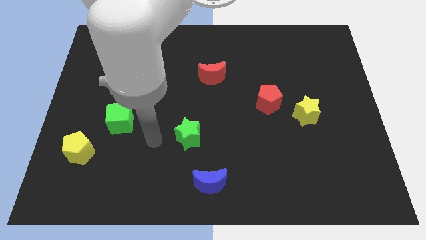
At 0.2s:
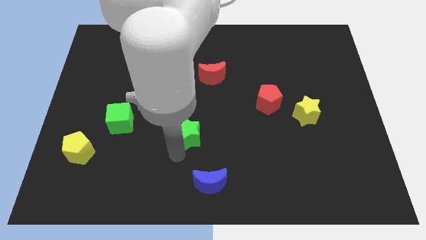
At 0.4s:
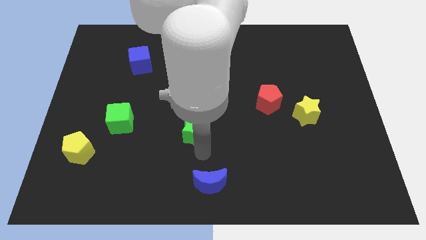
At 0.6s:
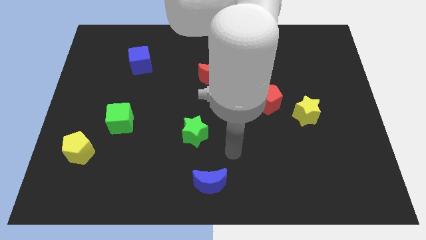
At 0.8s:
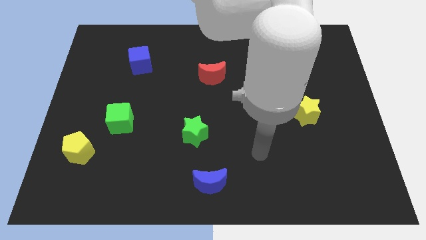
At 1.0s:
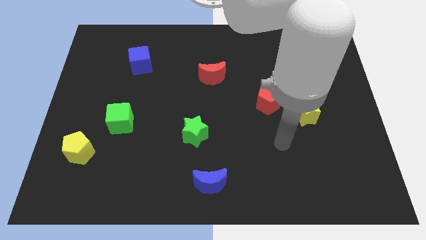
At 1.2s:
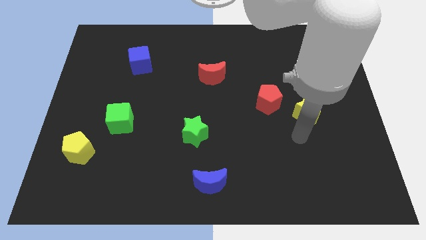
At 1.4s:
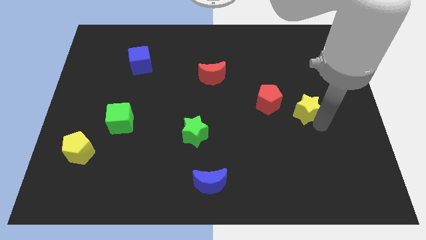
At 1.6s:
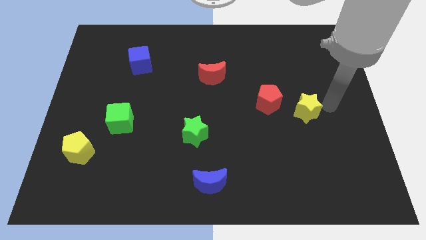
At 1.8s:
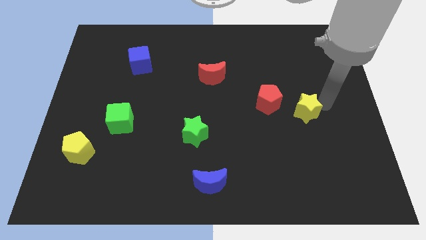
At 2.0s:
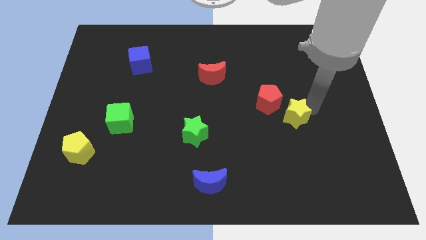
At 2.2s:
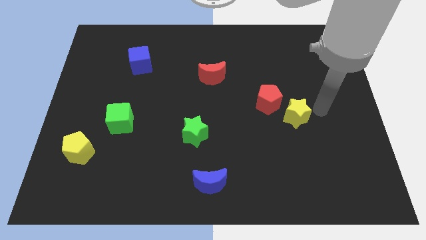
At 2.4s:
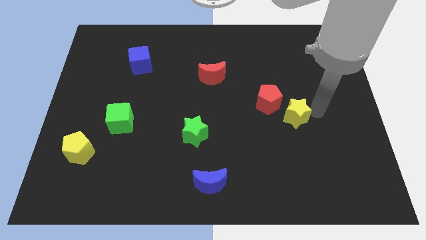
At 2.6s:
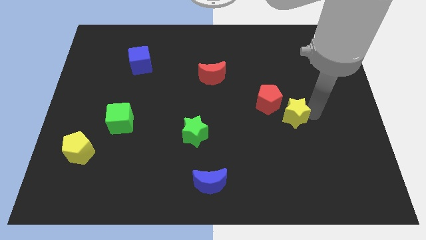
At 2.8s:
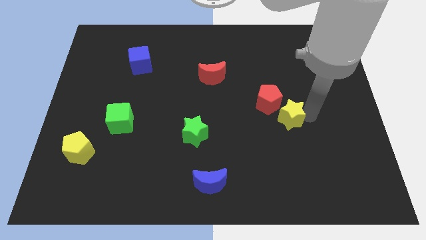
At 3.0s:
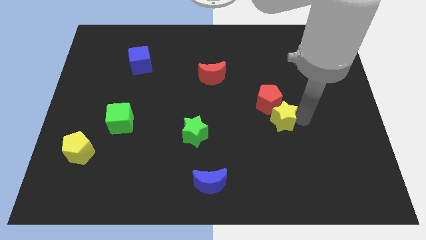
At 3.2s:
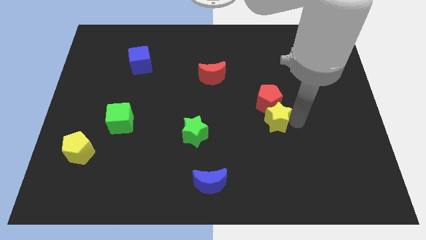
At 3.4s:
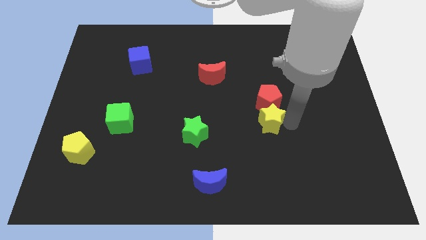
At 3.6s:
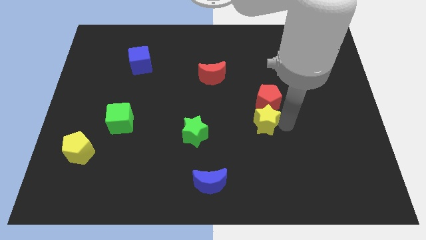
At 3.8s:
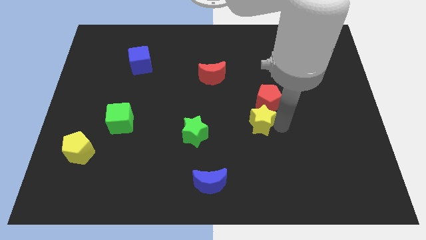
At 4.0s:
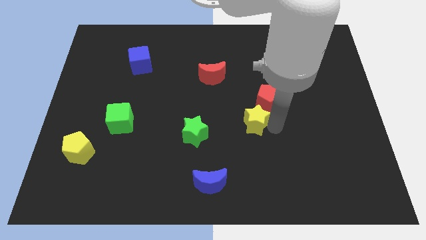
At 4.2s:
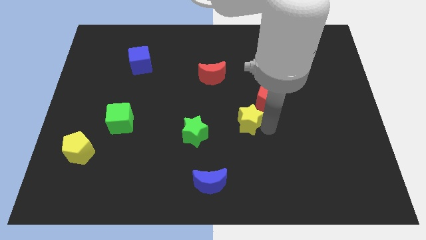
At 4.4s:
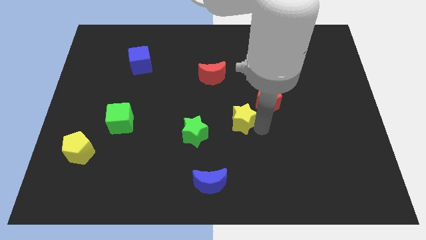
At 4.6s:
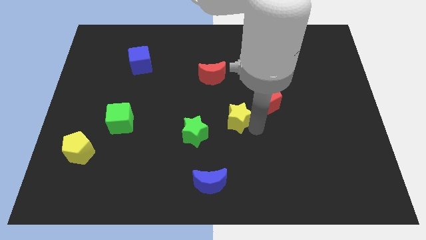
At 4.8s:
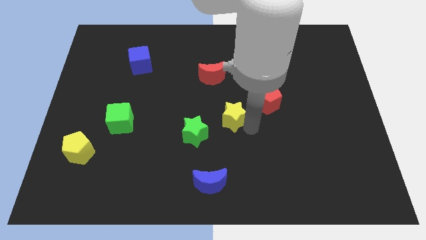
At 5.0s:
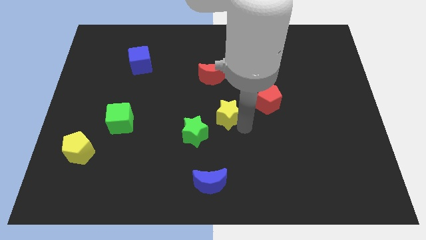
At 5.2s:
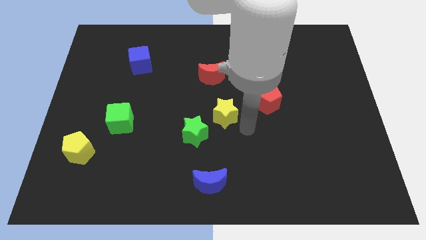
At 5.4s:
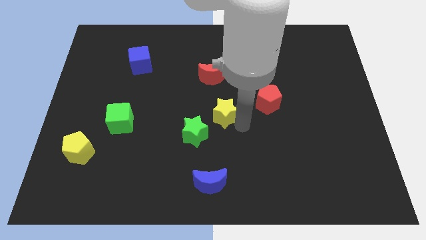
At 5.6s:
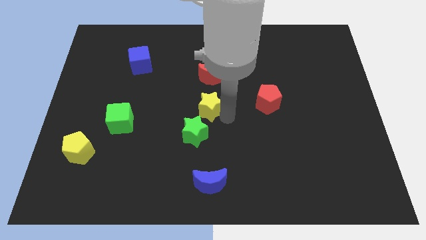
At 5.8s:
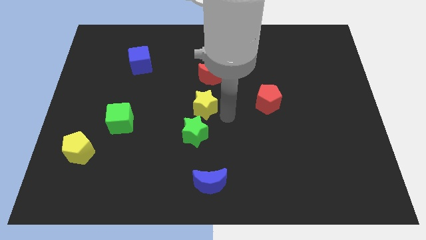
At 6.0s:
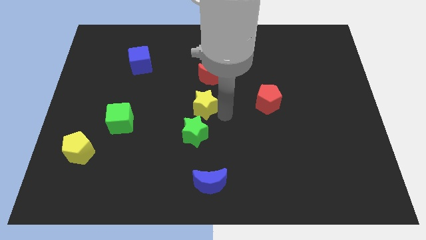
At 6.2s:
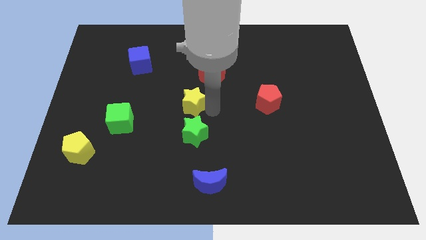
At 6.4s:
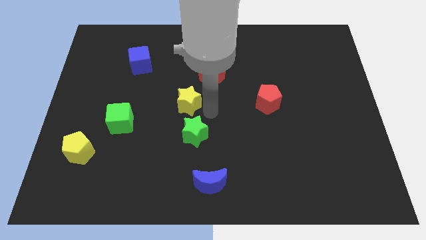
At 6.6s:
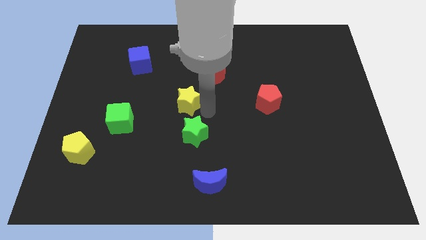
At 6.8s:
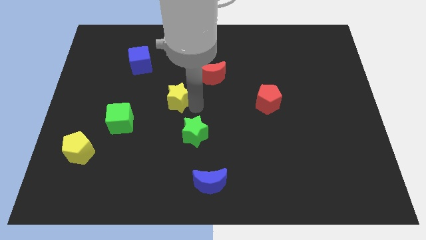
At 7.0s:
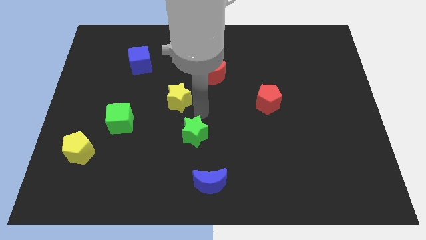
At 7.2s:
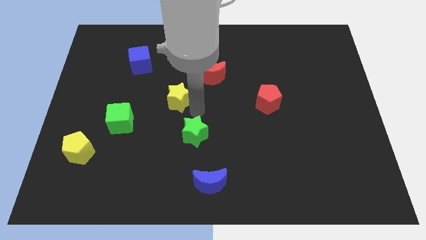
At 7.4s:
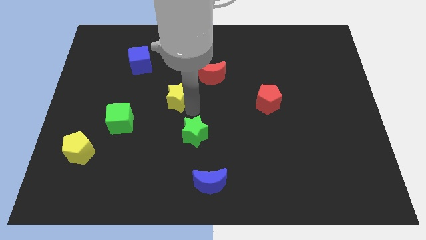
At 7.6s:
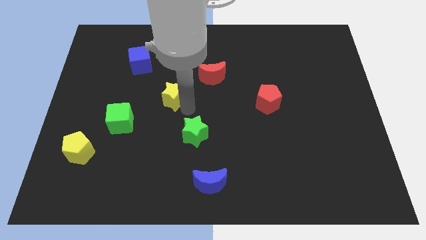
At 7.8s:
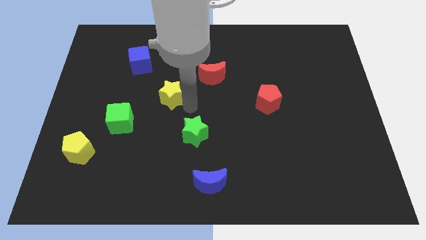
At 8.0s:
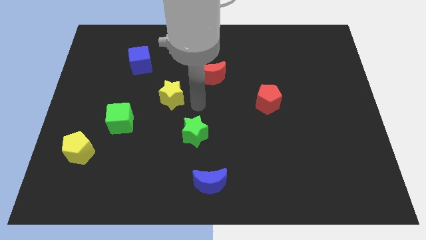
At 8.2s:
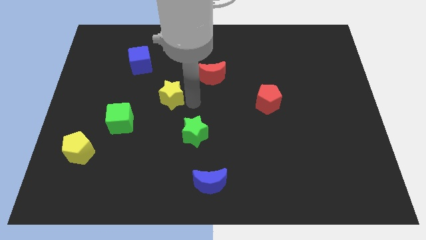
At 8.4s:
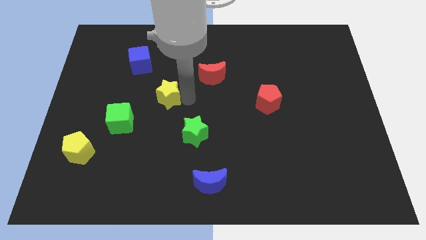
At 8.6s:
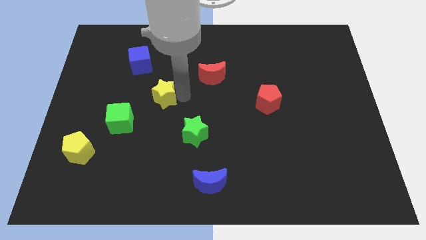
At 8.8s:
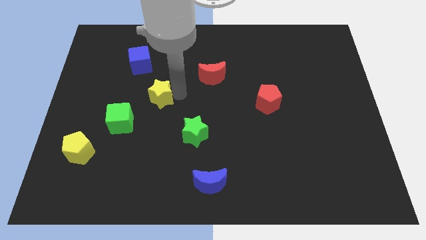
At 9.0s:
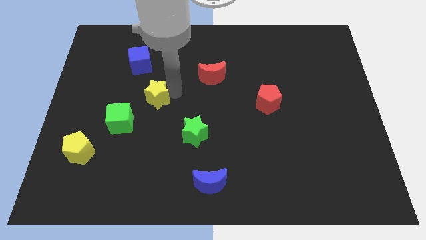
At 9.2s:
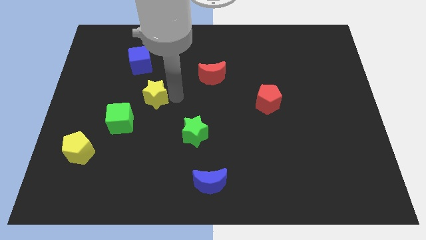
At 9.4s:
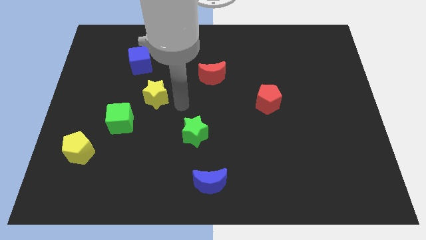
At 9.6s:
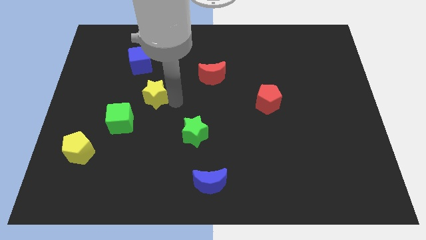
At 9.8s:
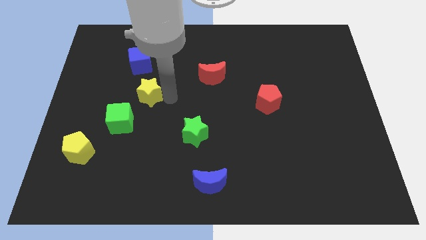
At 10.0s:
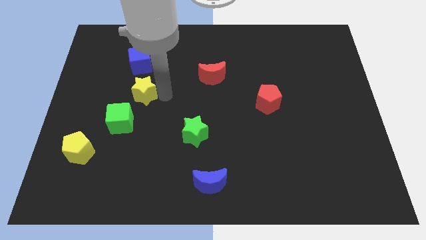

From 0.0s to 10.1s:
move the yellow star to the top of the green cube

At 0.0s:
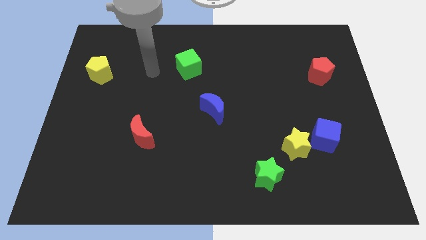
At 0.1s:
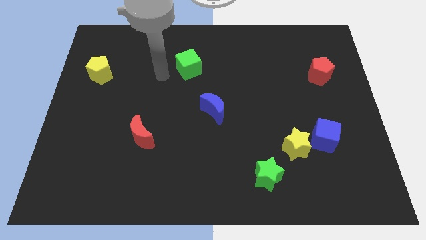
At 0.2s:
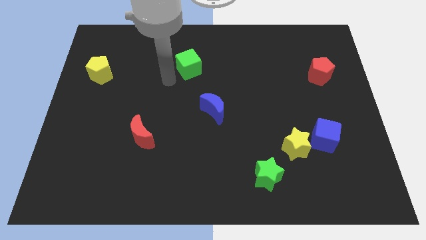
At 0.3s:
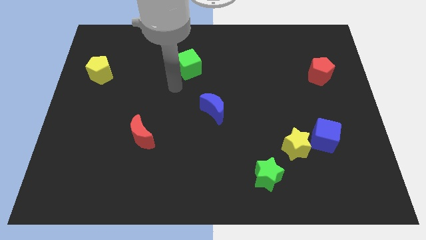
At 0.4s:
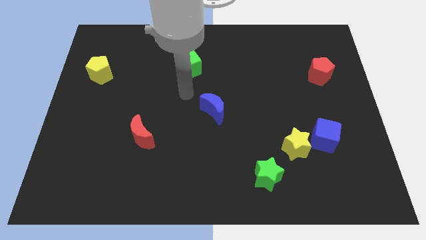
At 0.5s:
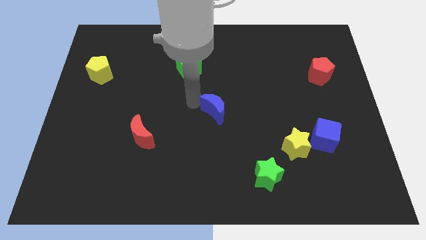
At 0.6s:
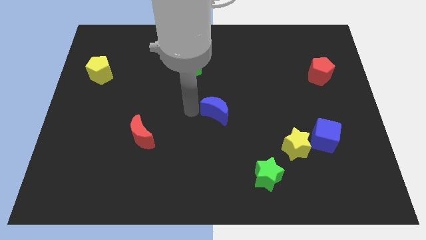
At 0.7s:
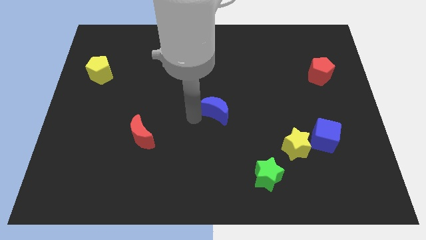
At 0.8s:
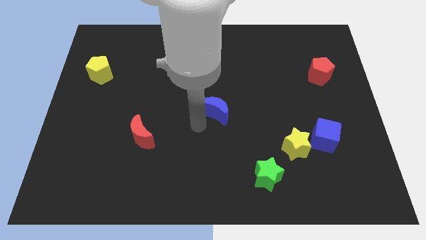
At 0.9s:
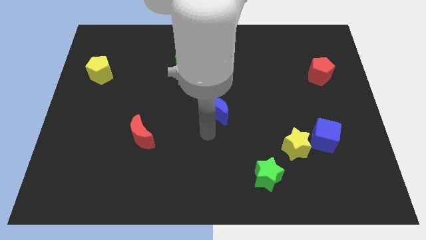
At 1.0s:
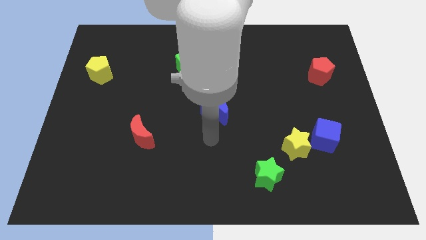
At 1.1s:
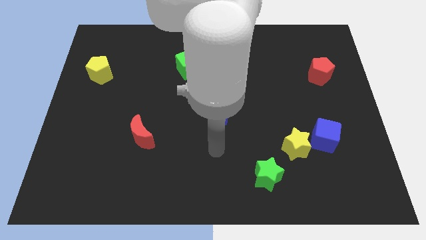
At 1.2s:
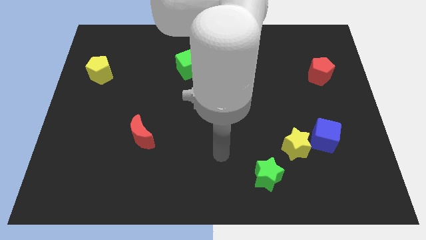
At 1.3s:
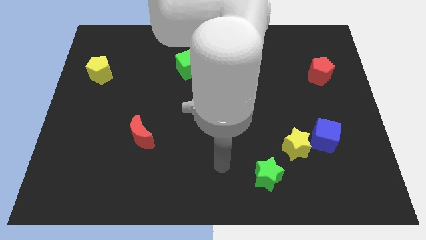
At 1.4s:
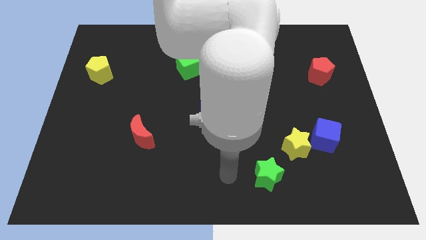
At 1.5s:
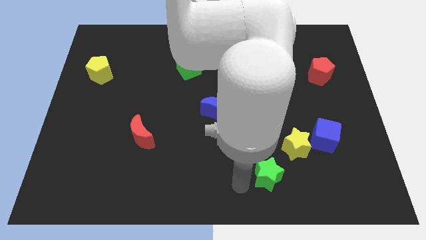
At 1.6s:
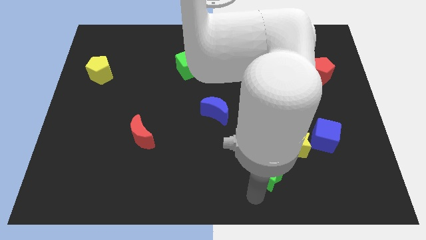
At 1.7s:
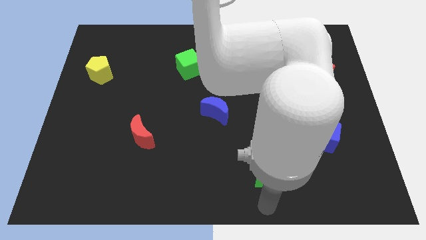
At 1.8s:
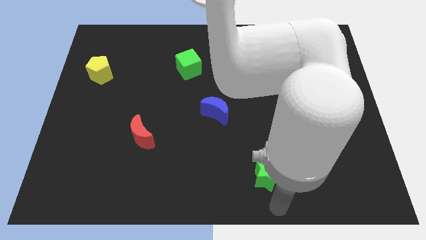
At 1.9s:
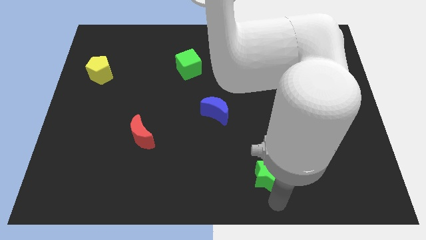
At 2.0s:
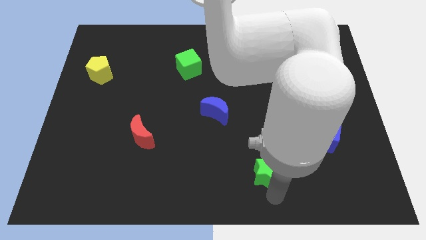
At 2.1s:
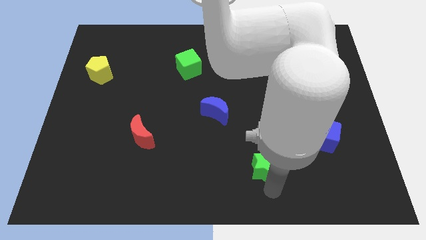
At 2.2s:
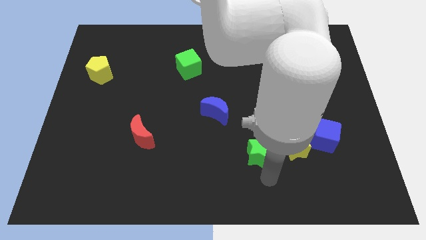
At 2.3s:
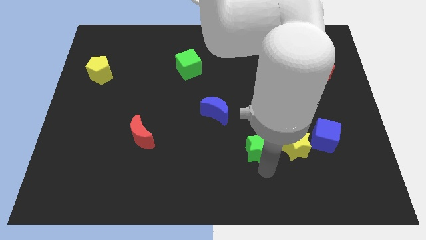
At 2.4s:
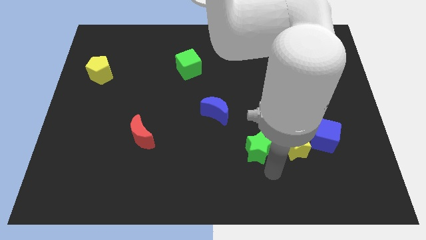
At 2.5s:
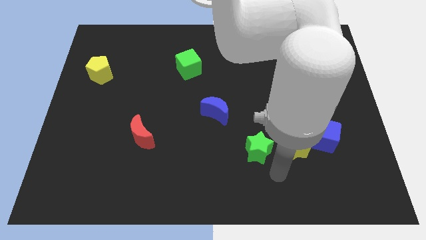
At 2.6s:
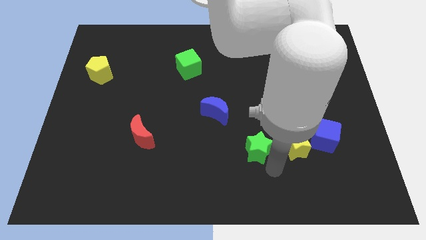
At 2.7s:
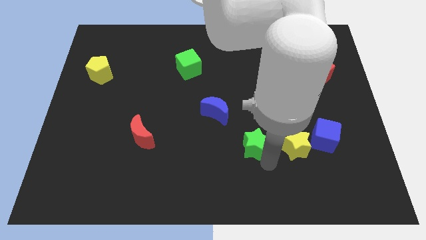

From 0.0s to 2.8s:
push the green star to the bottom right side of the blue moon
